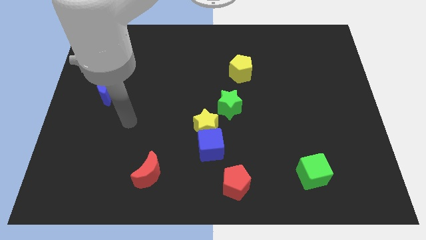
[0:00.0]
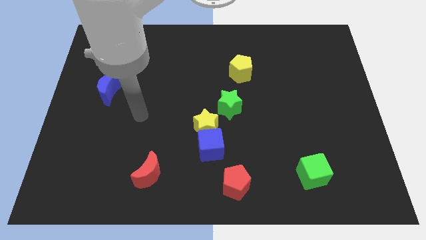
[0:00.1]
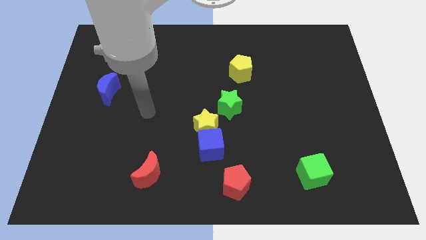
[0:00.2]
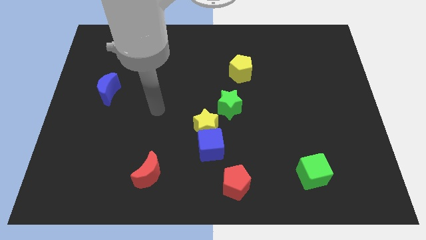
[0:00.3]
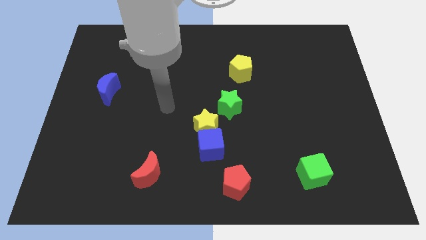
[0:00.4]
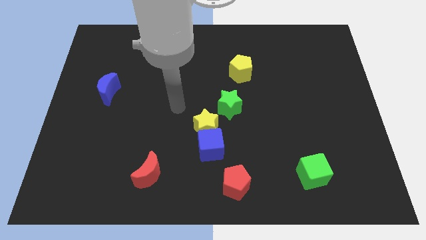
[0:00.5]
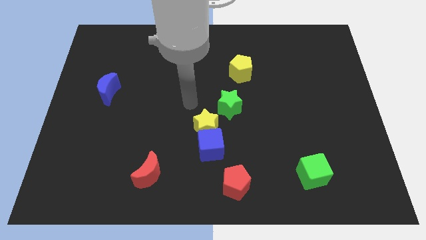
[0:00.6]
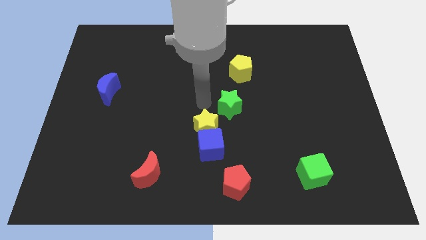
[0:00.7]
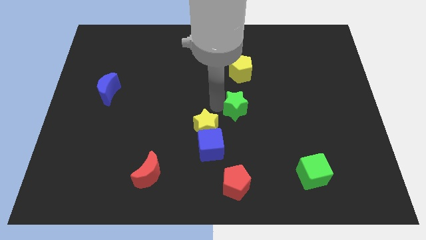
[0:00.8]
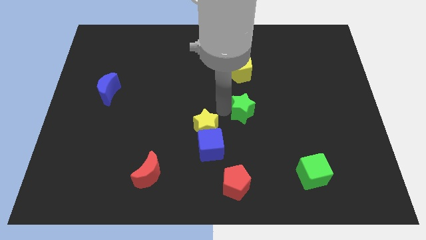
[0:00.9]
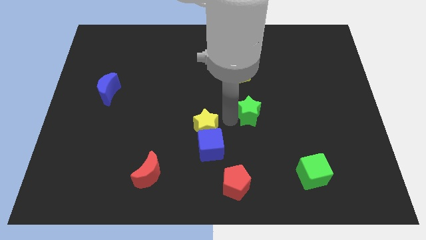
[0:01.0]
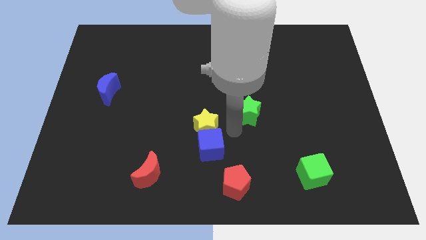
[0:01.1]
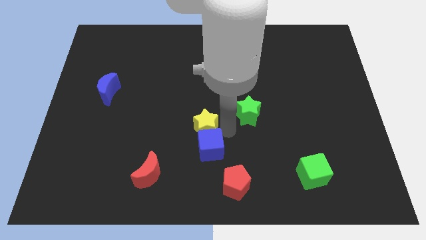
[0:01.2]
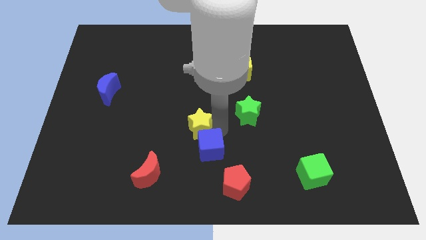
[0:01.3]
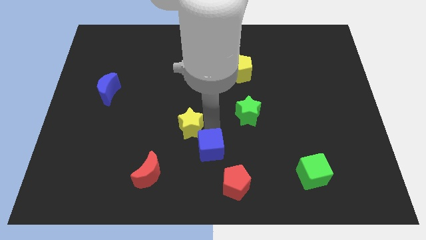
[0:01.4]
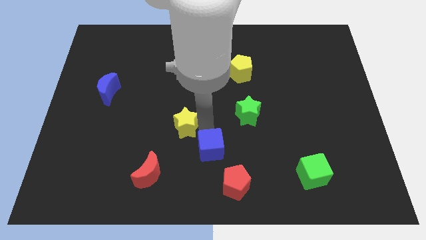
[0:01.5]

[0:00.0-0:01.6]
pull the yellow star apart from the blue cube and green star

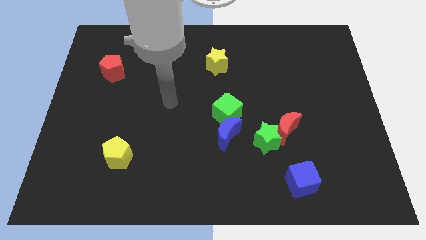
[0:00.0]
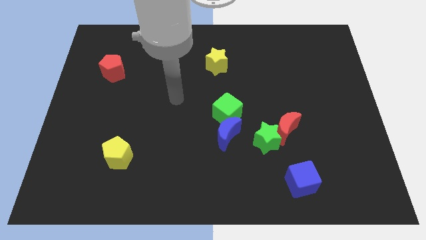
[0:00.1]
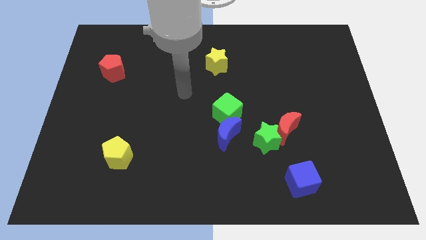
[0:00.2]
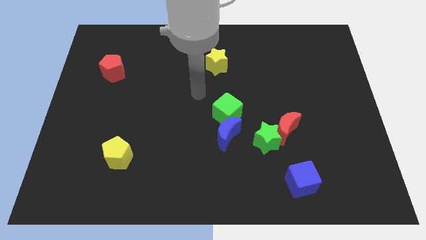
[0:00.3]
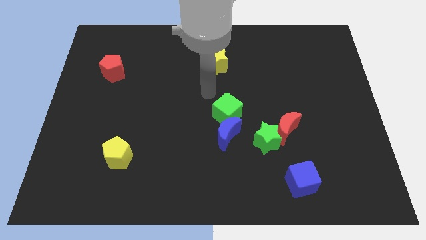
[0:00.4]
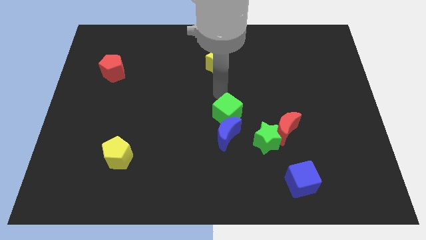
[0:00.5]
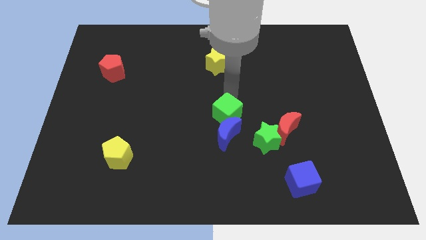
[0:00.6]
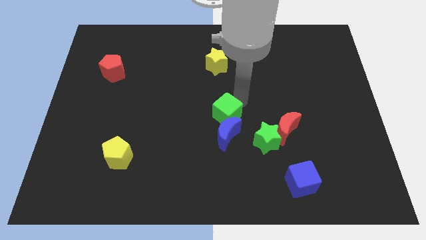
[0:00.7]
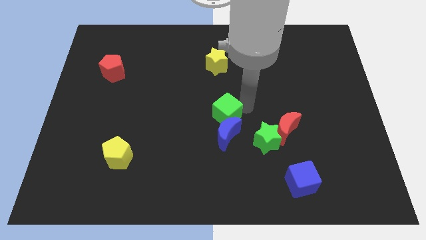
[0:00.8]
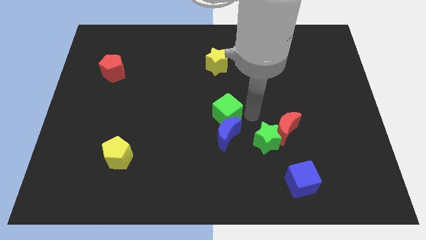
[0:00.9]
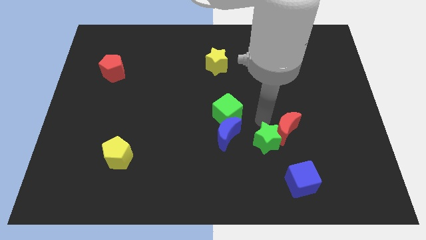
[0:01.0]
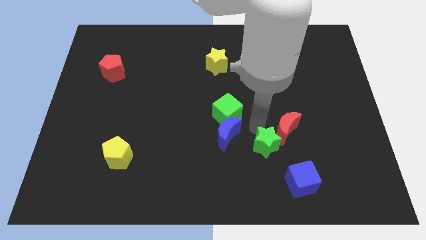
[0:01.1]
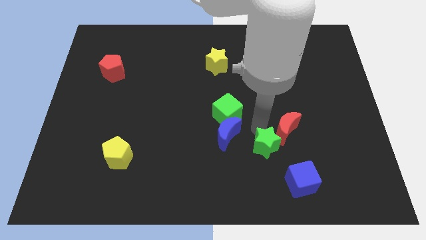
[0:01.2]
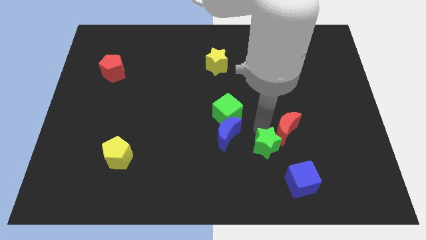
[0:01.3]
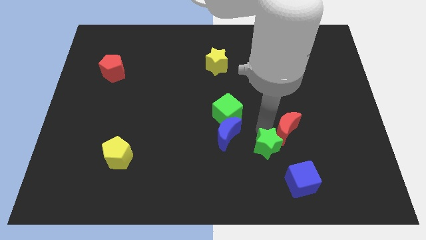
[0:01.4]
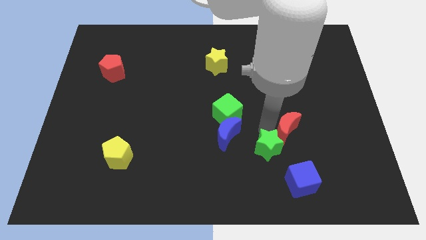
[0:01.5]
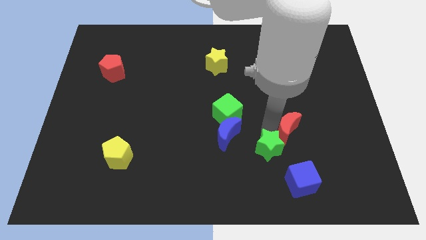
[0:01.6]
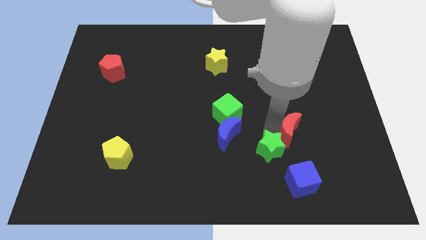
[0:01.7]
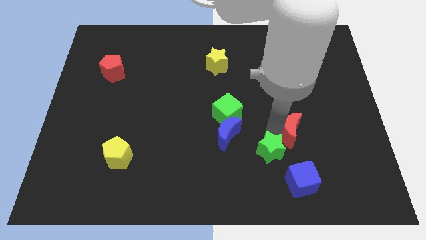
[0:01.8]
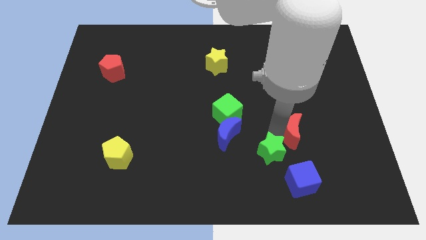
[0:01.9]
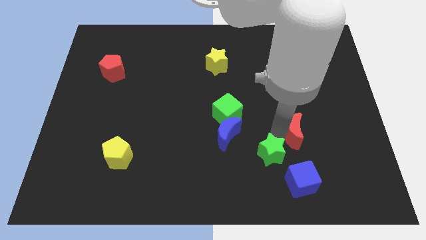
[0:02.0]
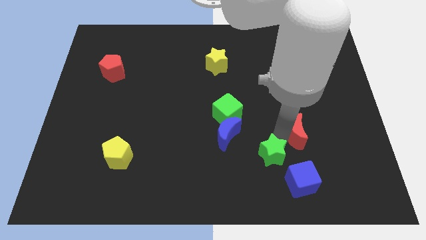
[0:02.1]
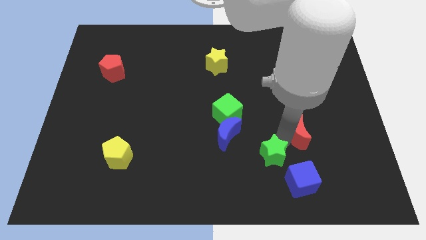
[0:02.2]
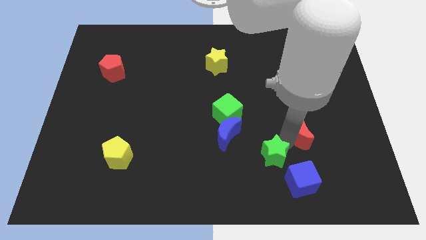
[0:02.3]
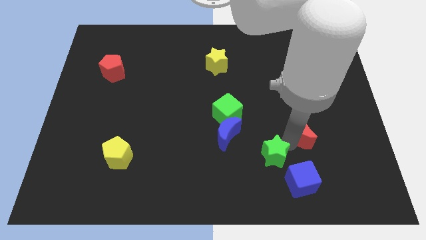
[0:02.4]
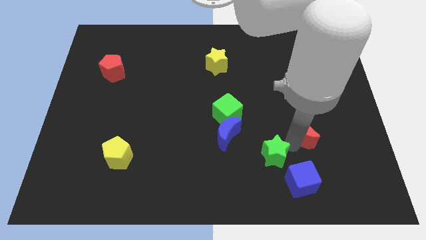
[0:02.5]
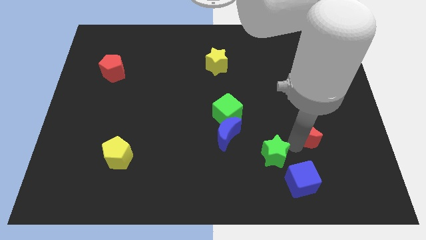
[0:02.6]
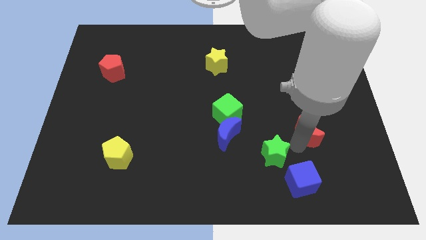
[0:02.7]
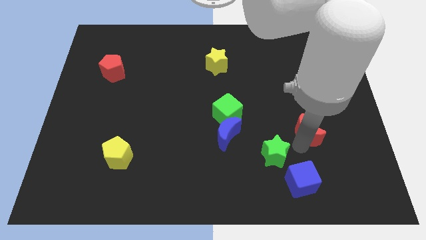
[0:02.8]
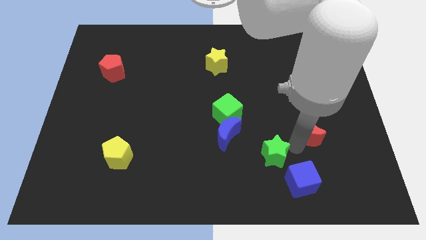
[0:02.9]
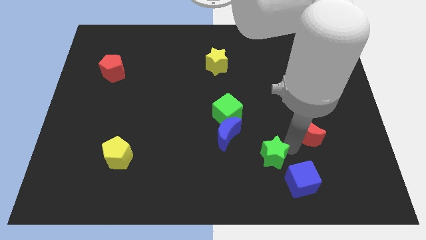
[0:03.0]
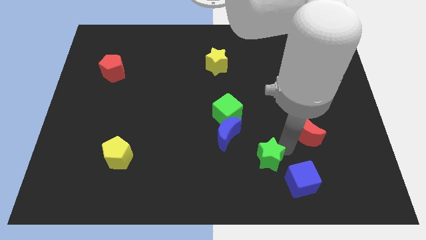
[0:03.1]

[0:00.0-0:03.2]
pull the red moon apart from the green star

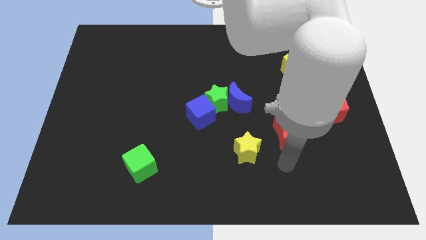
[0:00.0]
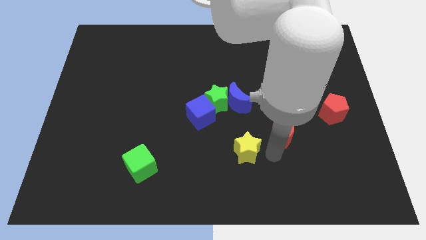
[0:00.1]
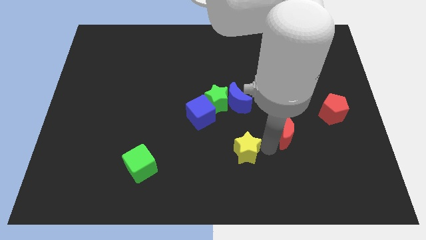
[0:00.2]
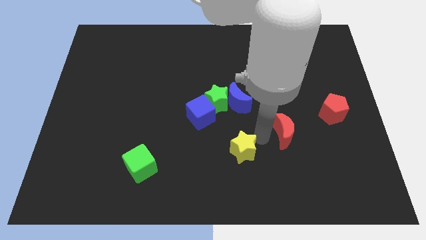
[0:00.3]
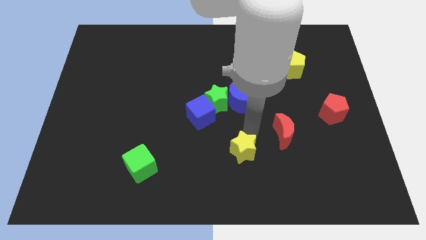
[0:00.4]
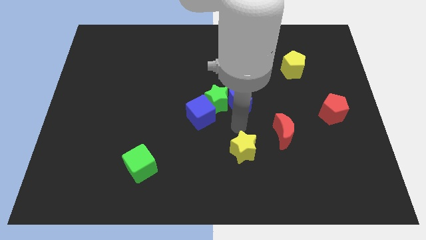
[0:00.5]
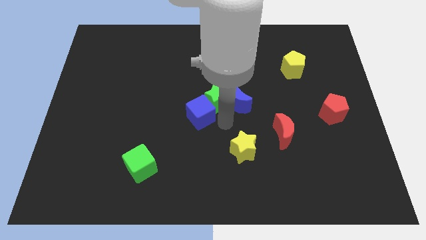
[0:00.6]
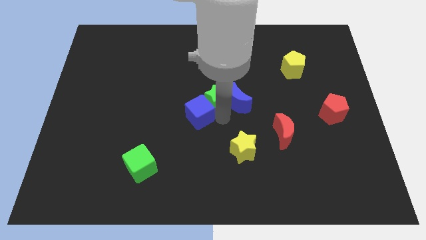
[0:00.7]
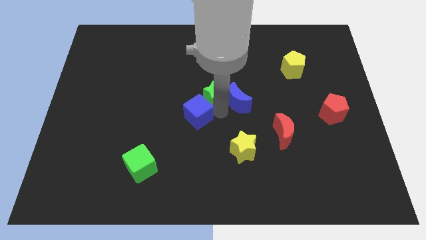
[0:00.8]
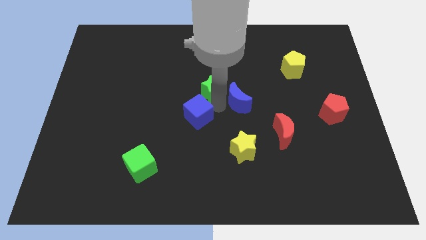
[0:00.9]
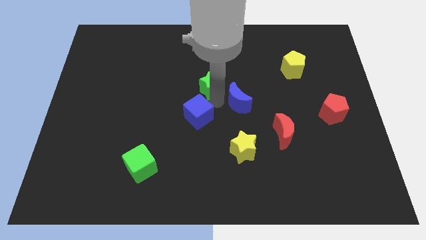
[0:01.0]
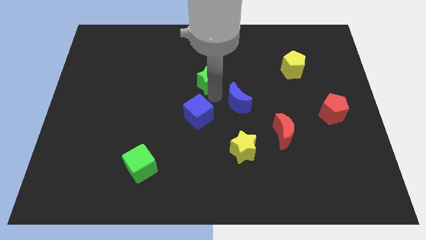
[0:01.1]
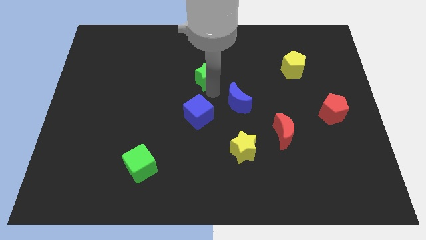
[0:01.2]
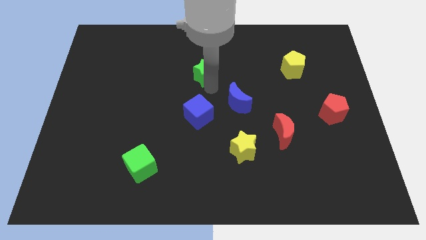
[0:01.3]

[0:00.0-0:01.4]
pull the green star apart from the blue moon and blue cube

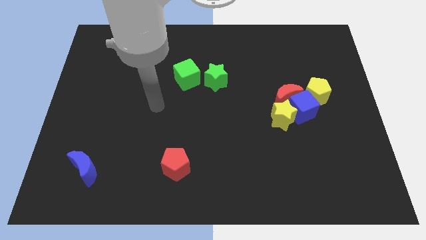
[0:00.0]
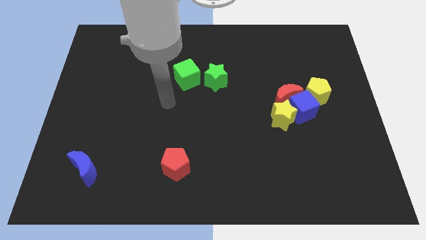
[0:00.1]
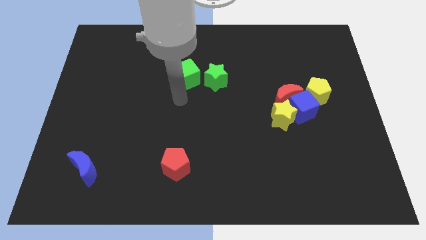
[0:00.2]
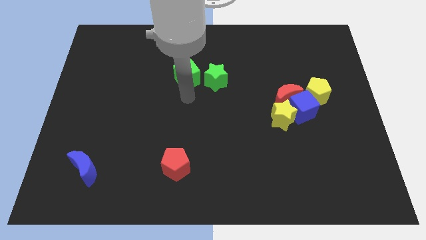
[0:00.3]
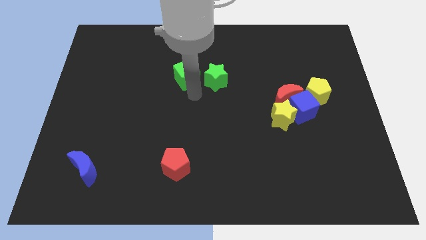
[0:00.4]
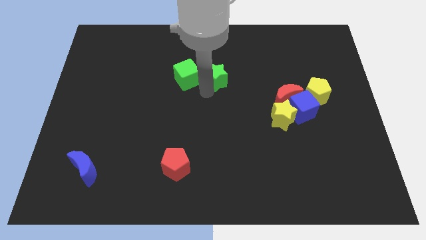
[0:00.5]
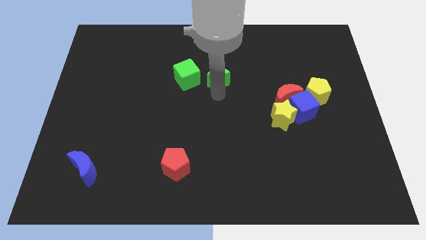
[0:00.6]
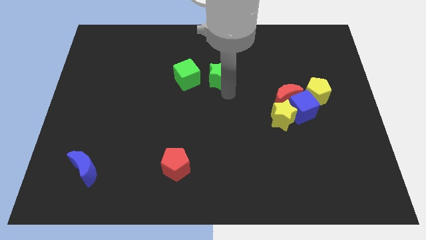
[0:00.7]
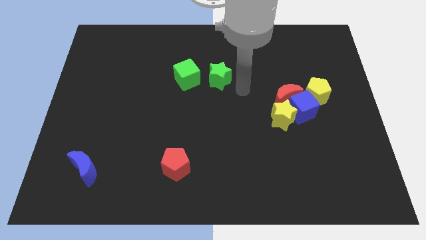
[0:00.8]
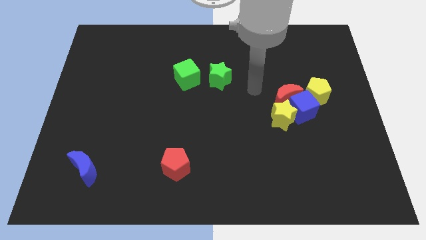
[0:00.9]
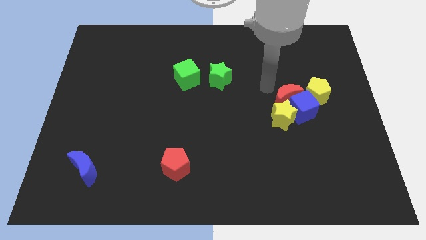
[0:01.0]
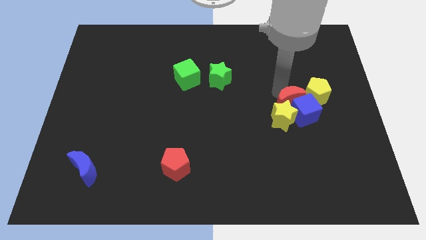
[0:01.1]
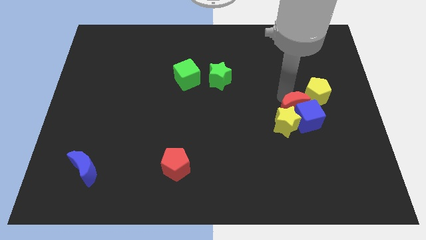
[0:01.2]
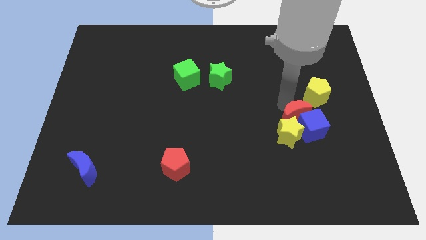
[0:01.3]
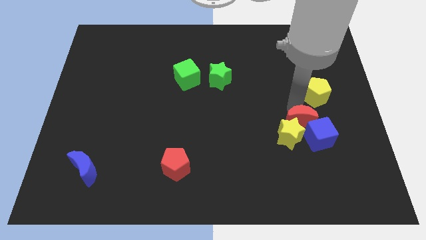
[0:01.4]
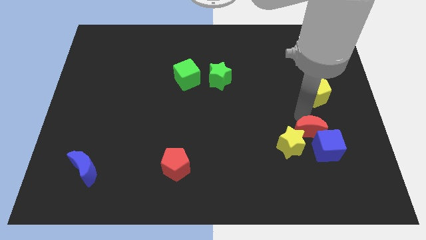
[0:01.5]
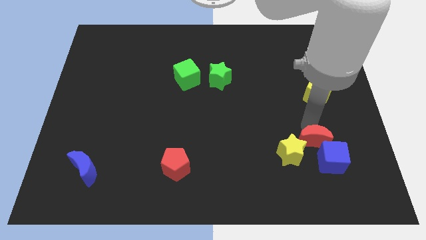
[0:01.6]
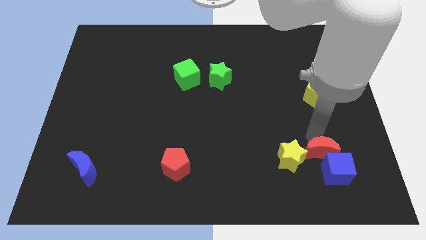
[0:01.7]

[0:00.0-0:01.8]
move the blue cube away from the group

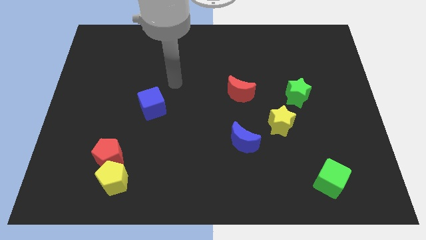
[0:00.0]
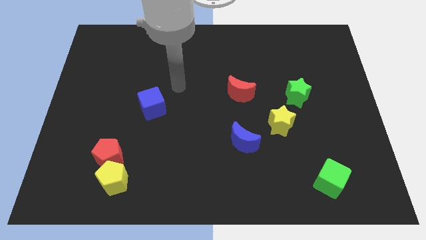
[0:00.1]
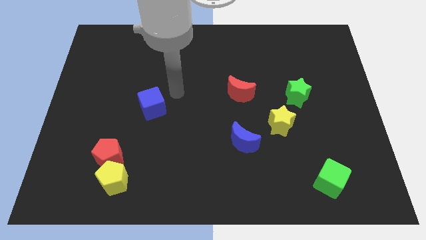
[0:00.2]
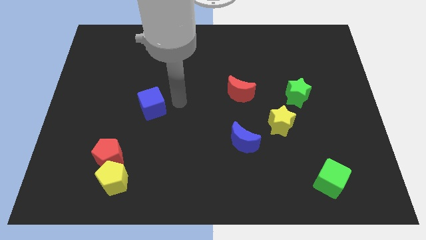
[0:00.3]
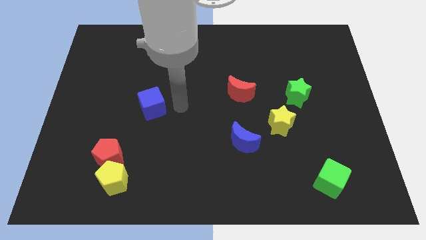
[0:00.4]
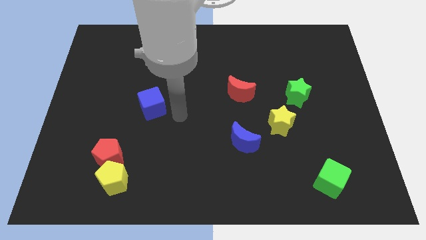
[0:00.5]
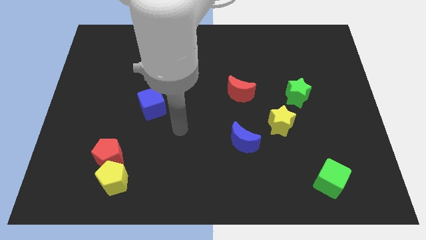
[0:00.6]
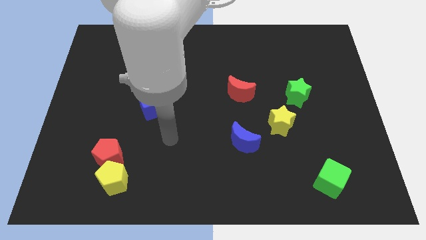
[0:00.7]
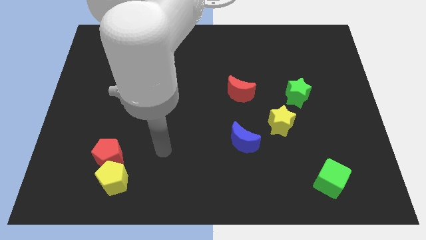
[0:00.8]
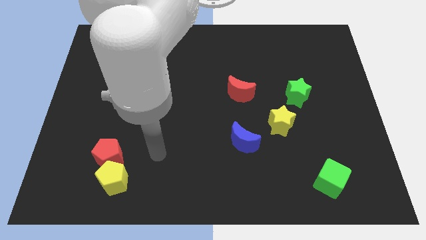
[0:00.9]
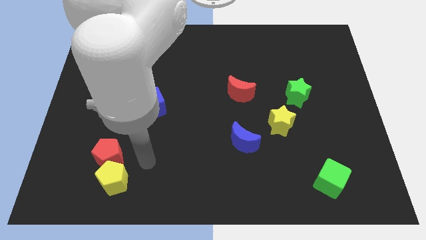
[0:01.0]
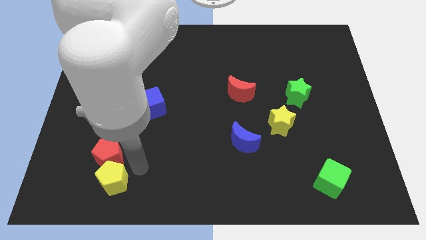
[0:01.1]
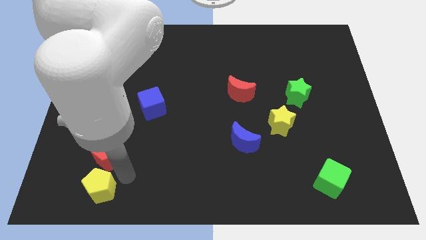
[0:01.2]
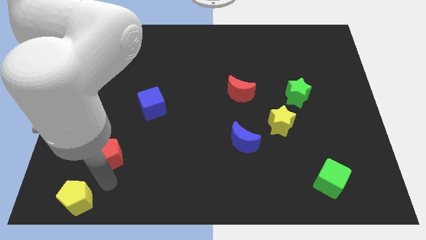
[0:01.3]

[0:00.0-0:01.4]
move the red pentagon away from the yellow pentagon
